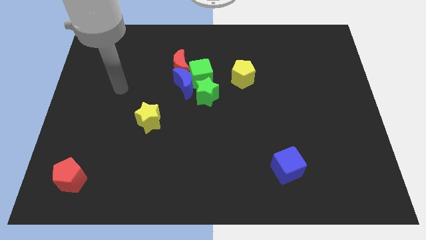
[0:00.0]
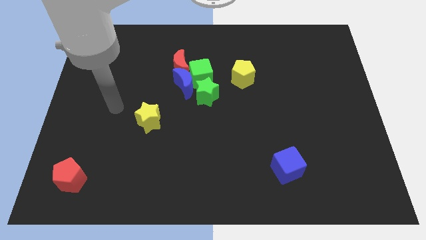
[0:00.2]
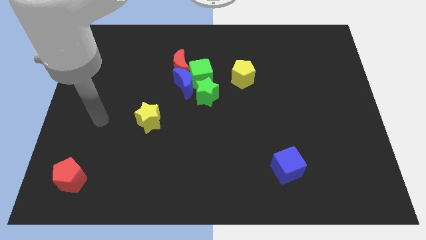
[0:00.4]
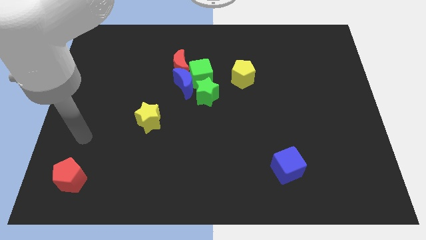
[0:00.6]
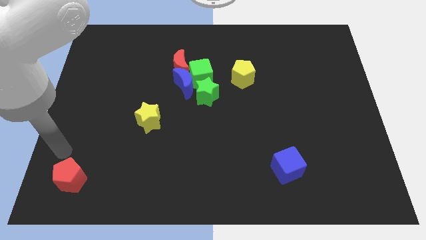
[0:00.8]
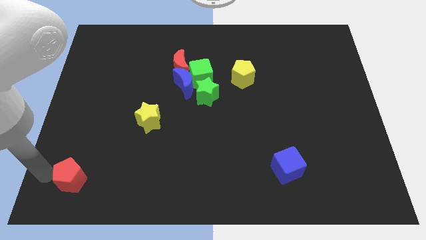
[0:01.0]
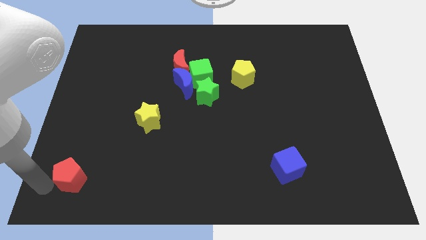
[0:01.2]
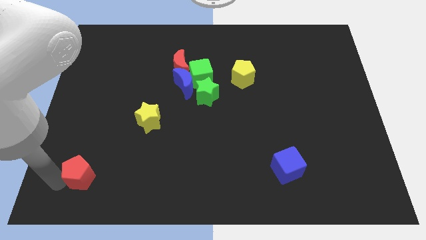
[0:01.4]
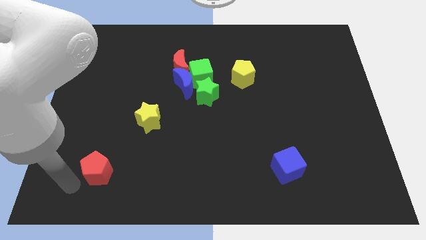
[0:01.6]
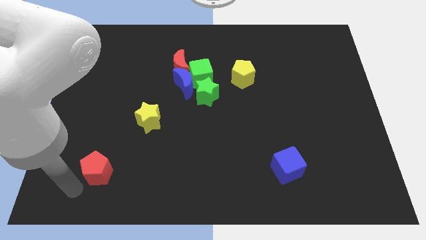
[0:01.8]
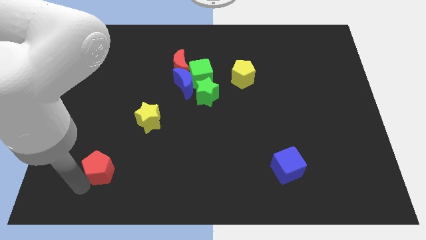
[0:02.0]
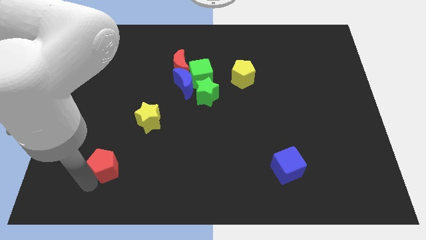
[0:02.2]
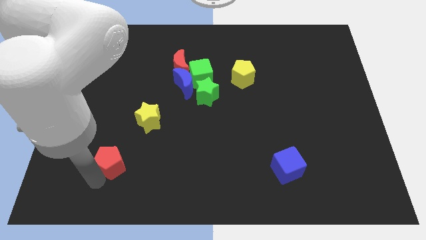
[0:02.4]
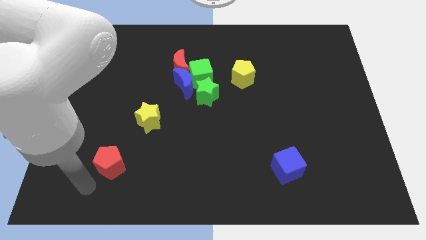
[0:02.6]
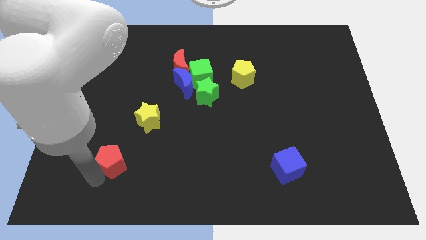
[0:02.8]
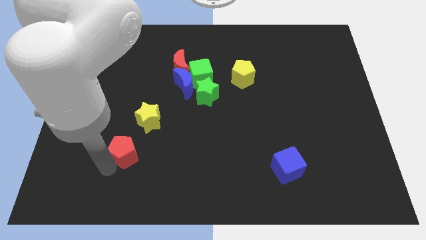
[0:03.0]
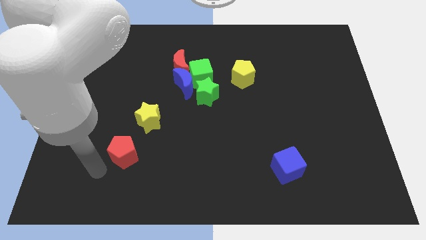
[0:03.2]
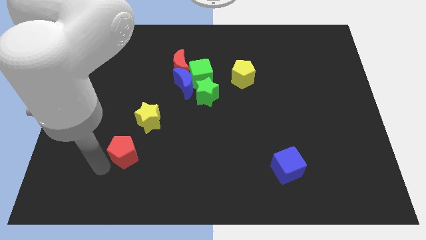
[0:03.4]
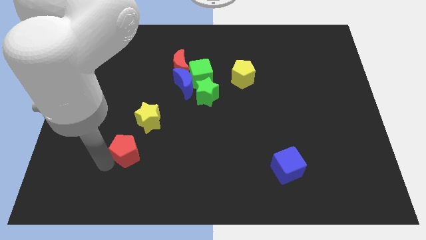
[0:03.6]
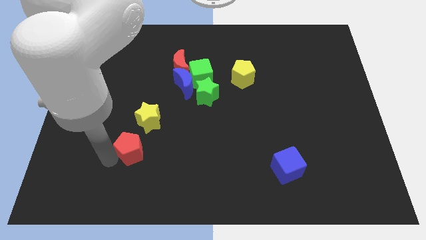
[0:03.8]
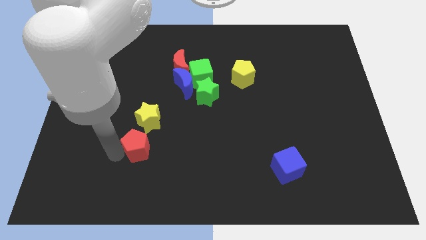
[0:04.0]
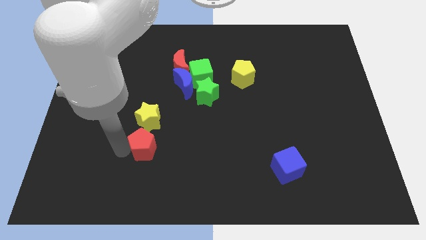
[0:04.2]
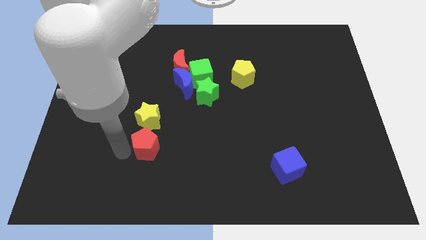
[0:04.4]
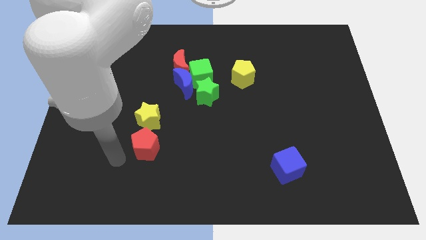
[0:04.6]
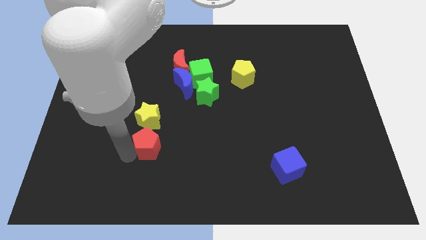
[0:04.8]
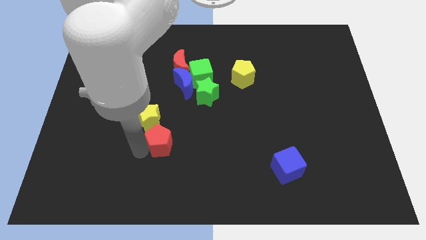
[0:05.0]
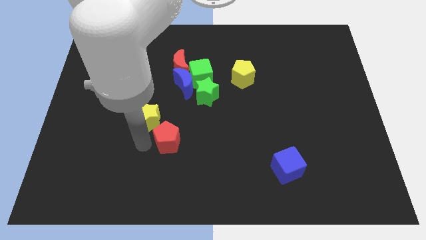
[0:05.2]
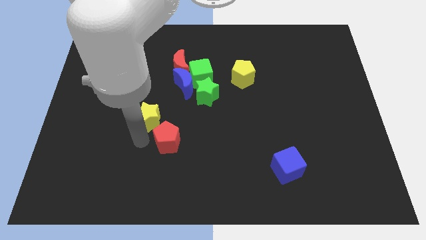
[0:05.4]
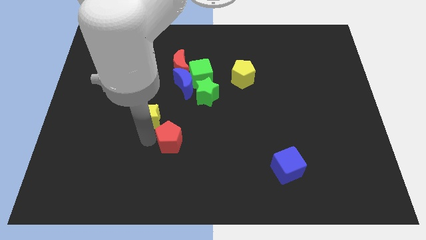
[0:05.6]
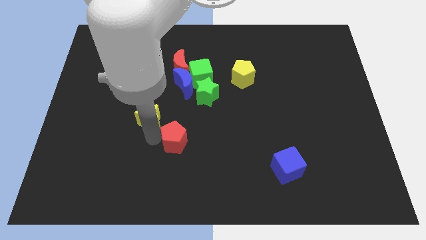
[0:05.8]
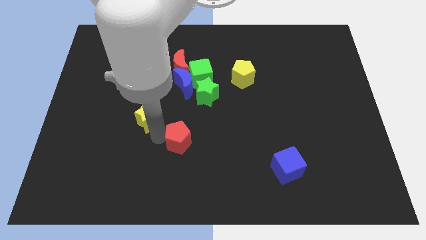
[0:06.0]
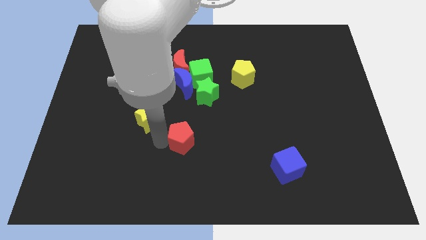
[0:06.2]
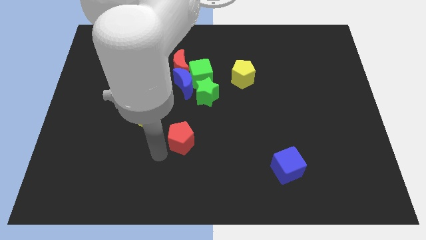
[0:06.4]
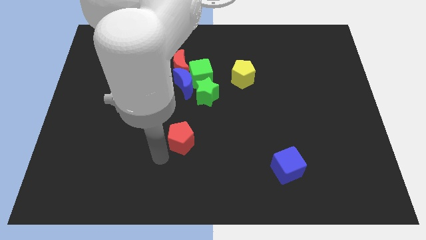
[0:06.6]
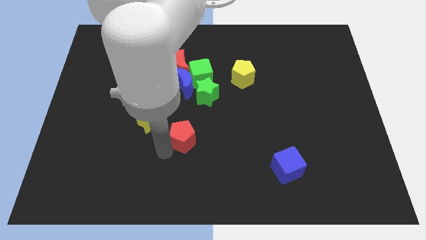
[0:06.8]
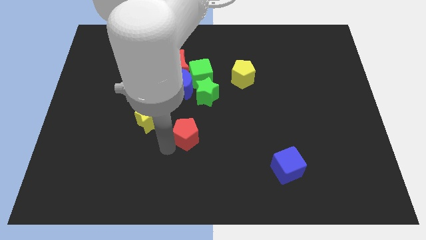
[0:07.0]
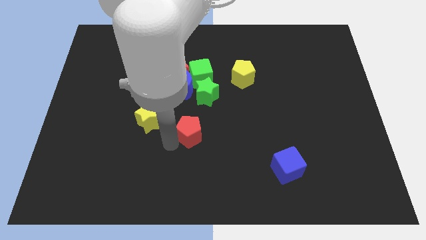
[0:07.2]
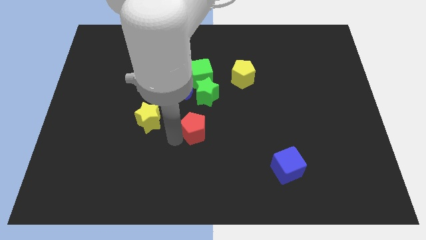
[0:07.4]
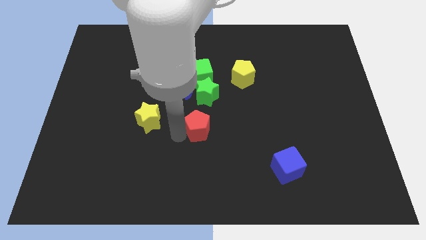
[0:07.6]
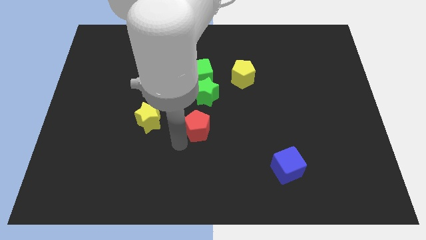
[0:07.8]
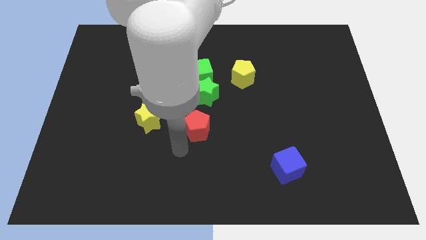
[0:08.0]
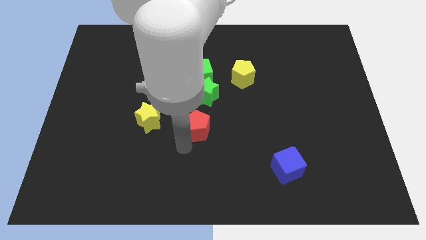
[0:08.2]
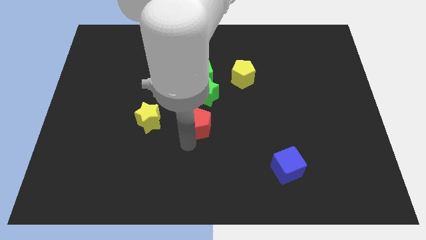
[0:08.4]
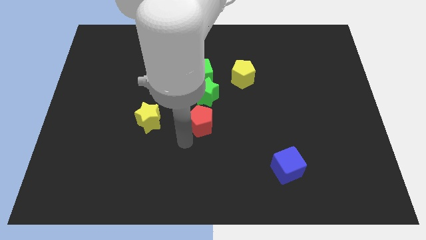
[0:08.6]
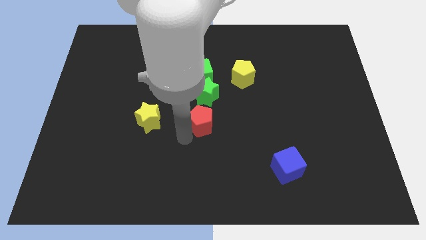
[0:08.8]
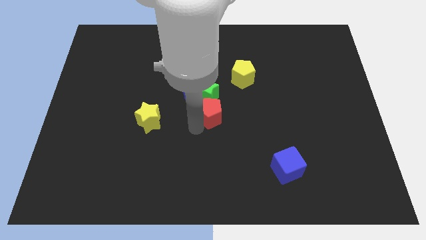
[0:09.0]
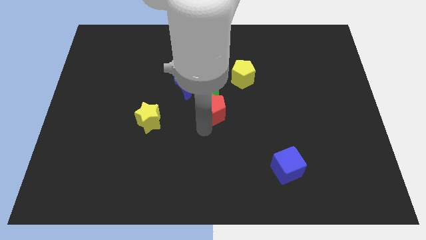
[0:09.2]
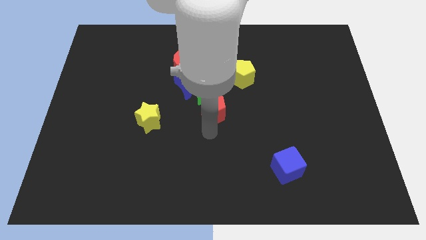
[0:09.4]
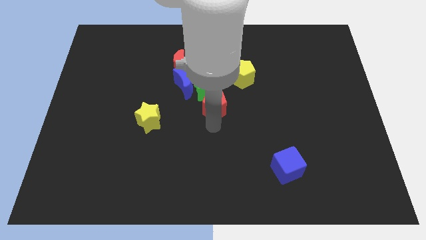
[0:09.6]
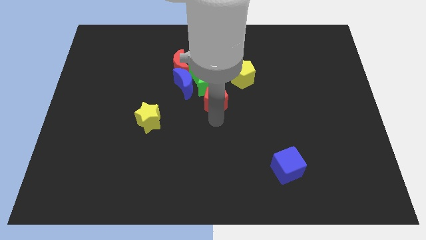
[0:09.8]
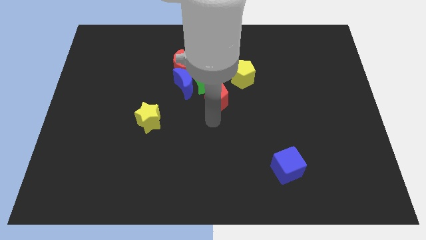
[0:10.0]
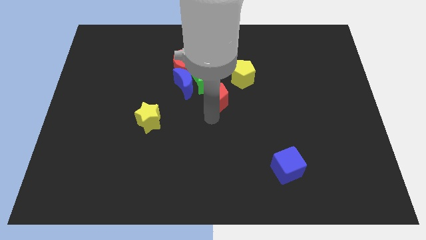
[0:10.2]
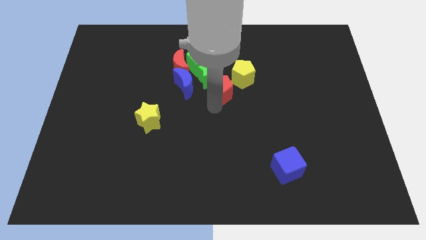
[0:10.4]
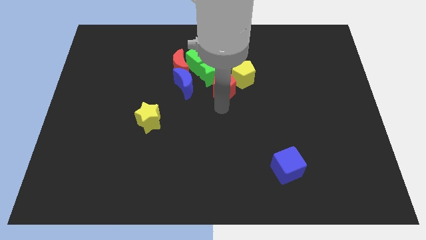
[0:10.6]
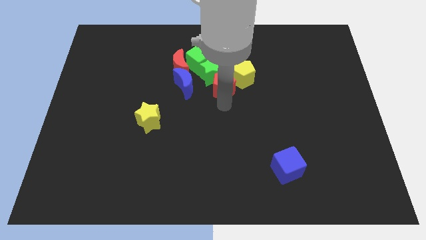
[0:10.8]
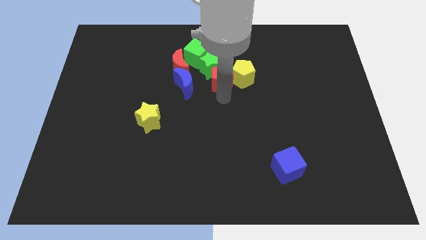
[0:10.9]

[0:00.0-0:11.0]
move the red pentagon diagonally up and to the left of the yellow pentagon

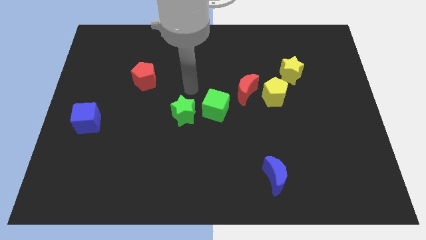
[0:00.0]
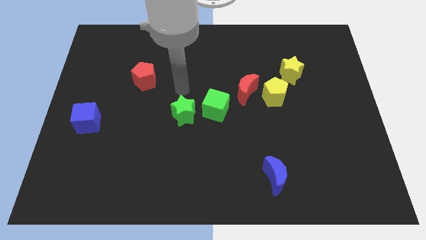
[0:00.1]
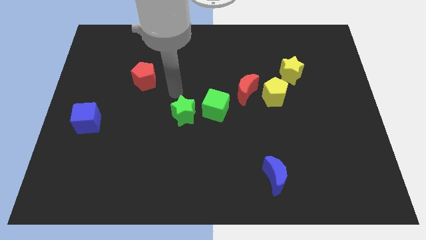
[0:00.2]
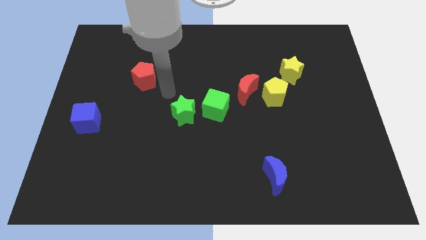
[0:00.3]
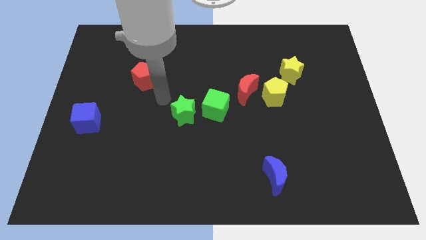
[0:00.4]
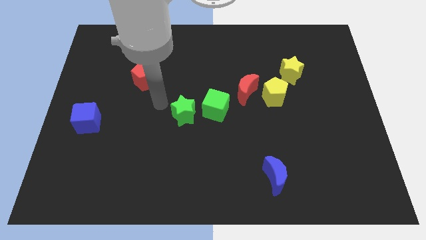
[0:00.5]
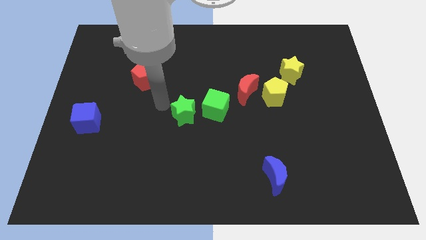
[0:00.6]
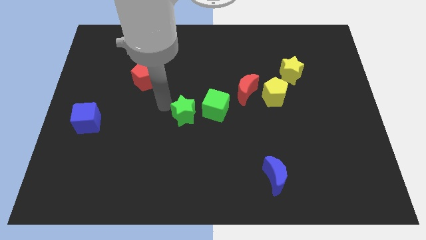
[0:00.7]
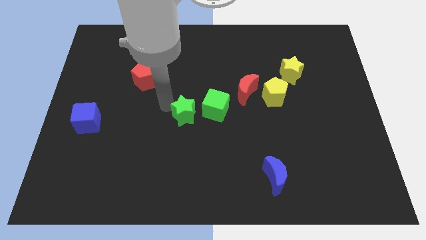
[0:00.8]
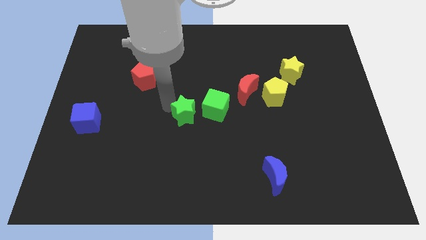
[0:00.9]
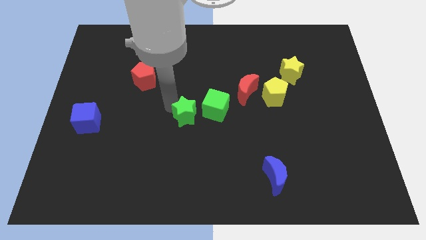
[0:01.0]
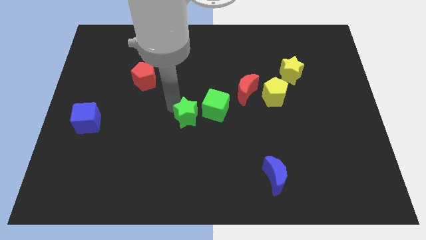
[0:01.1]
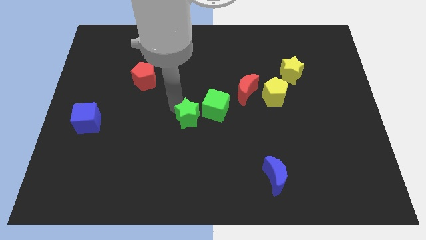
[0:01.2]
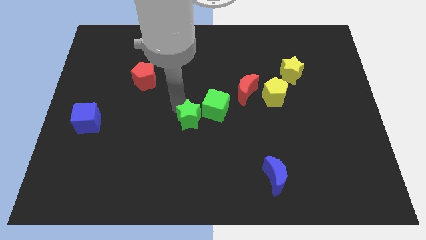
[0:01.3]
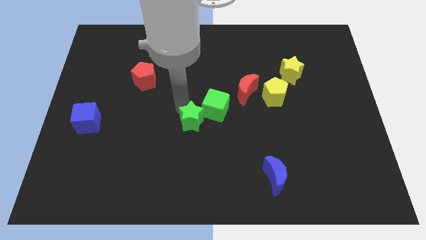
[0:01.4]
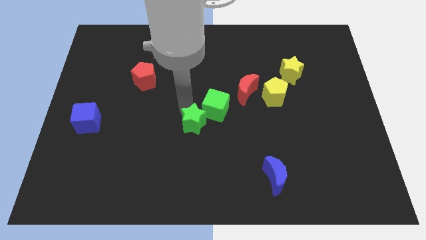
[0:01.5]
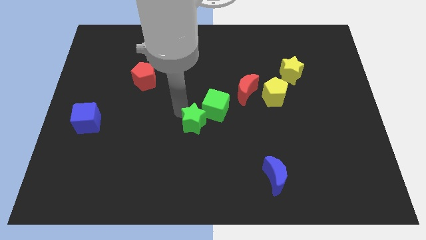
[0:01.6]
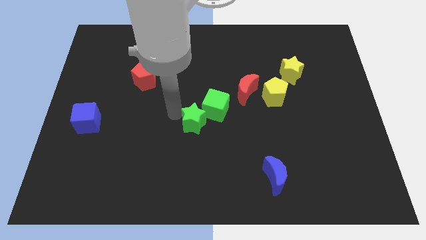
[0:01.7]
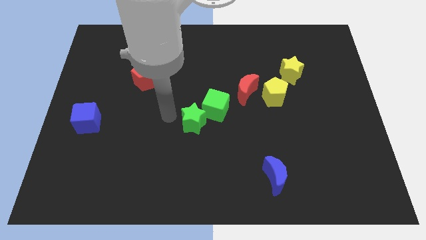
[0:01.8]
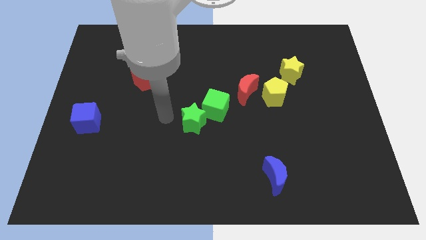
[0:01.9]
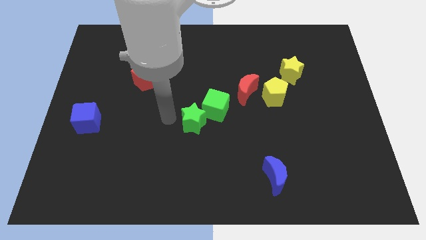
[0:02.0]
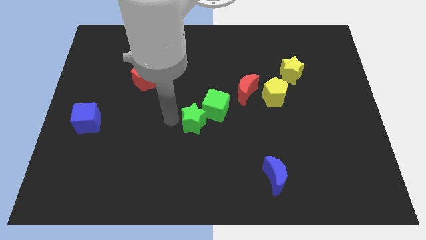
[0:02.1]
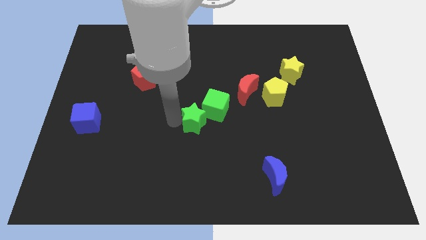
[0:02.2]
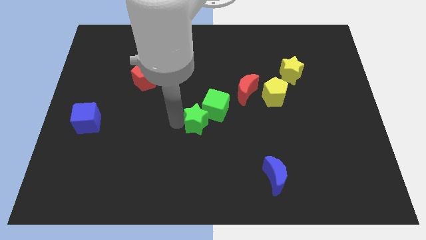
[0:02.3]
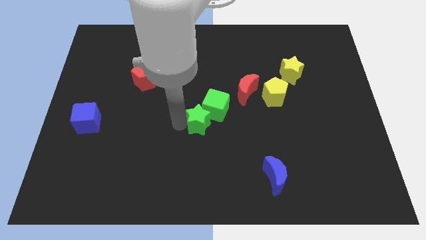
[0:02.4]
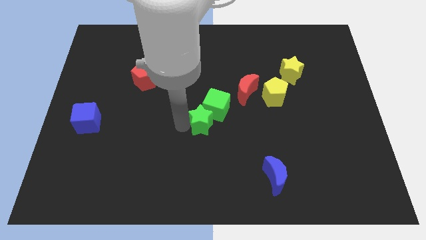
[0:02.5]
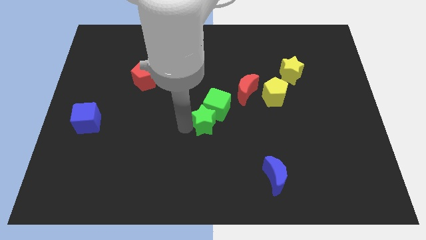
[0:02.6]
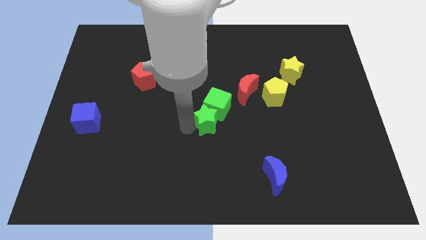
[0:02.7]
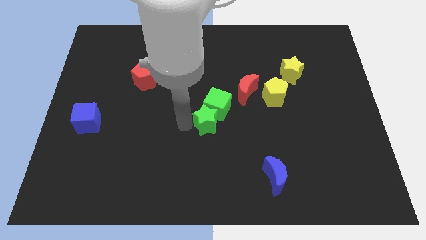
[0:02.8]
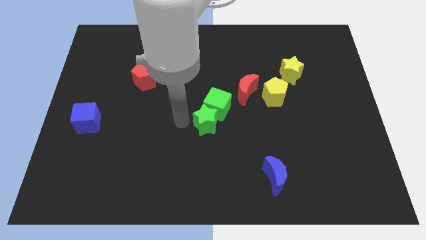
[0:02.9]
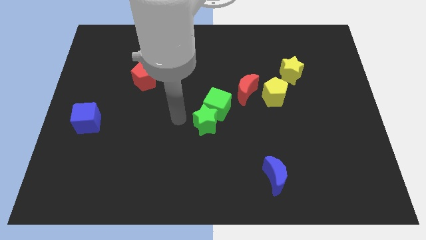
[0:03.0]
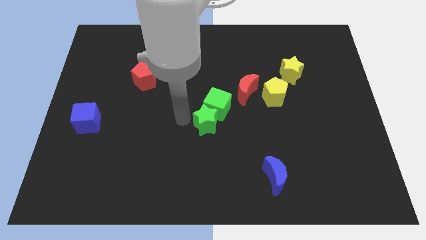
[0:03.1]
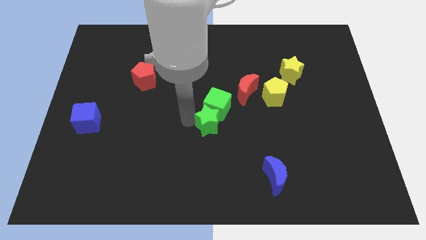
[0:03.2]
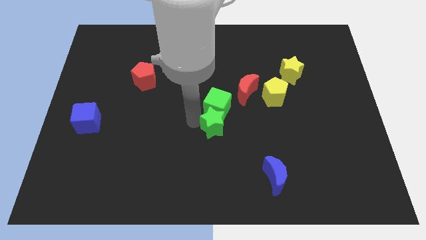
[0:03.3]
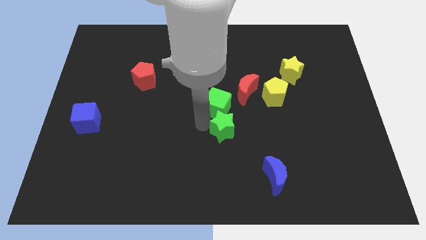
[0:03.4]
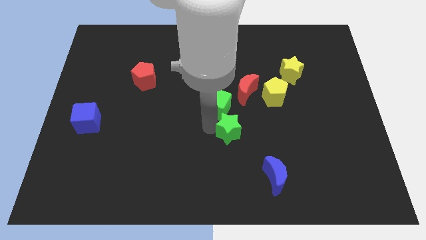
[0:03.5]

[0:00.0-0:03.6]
move the green star to the bottom side of the red moon
